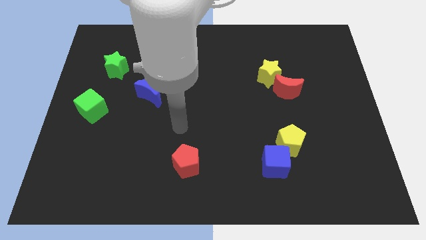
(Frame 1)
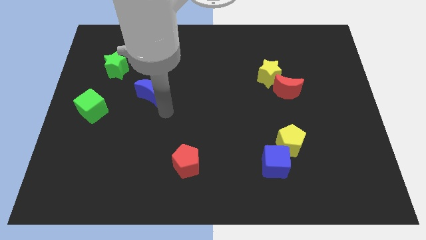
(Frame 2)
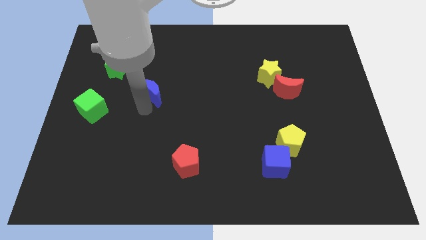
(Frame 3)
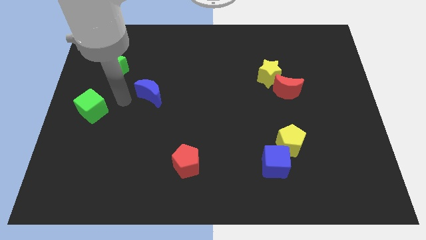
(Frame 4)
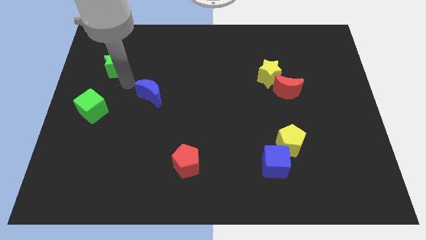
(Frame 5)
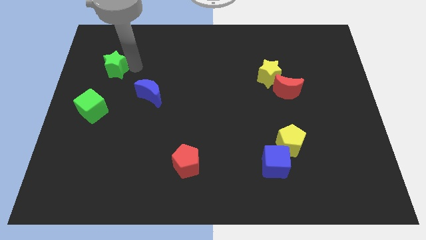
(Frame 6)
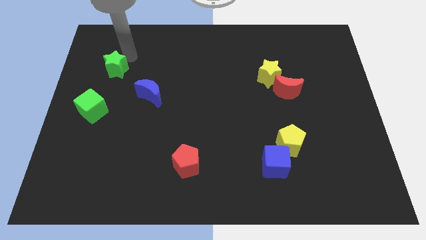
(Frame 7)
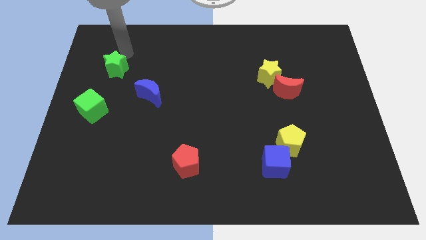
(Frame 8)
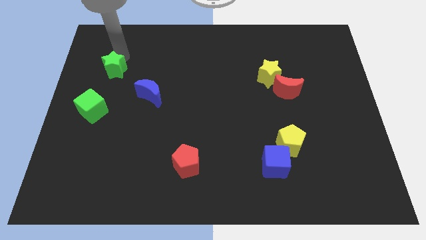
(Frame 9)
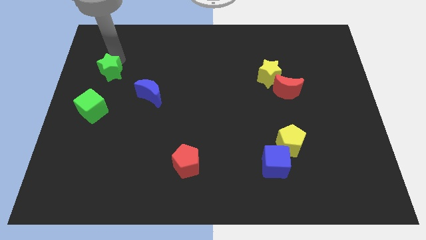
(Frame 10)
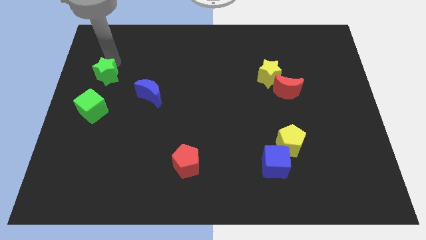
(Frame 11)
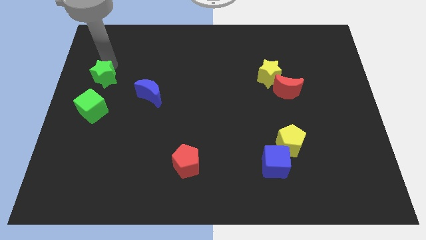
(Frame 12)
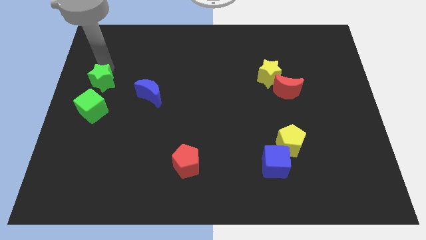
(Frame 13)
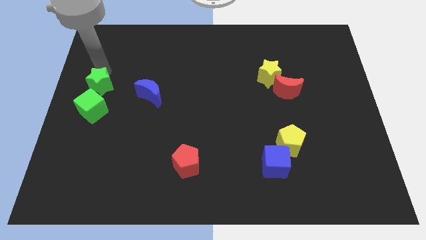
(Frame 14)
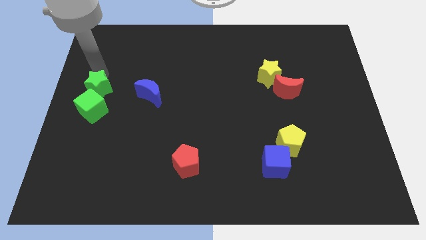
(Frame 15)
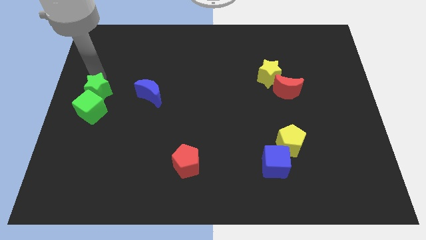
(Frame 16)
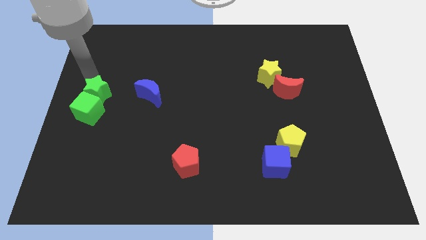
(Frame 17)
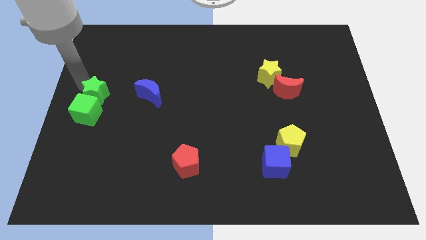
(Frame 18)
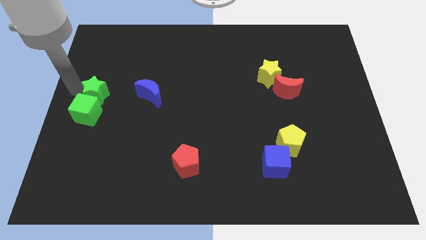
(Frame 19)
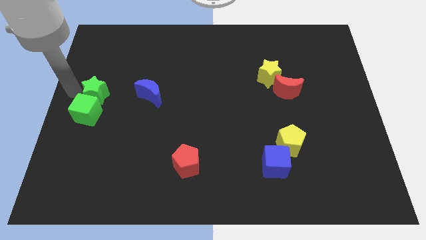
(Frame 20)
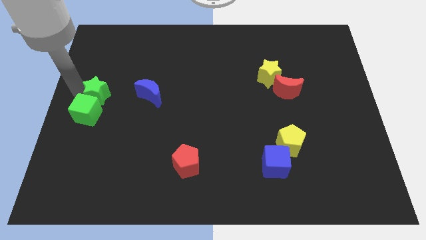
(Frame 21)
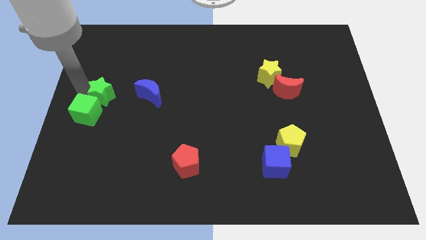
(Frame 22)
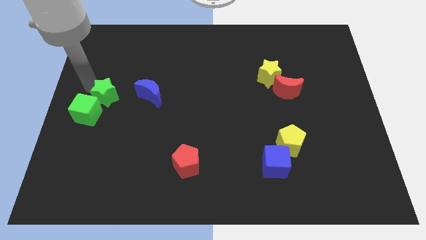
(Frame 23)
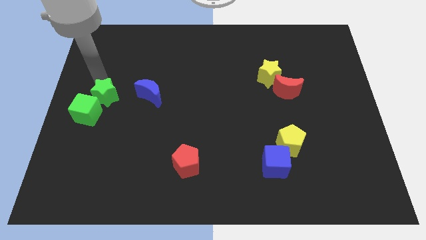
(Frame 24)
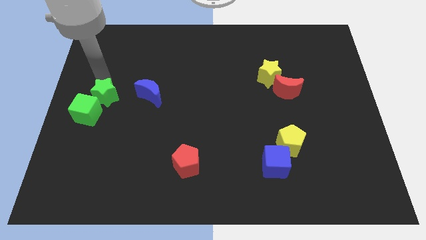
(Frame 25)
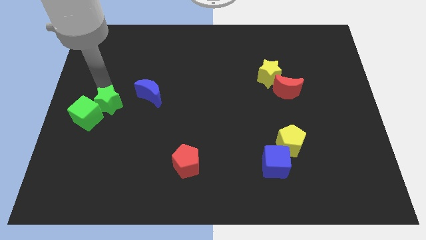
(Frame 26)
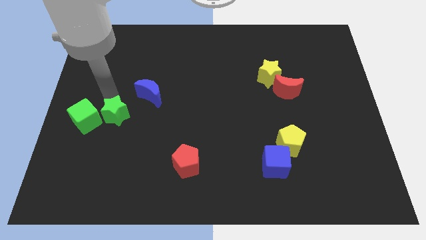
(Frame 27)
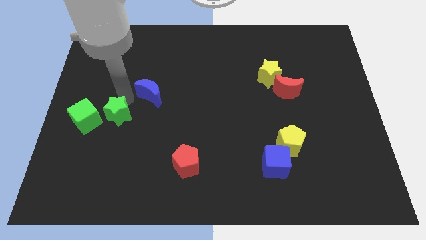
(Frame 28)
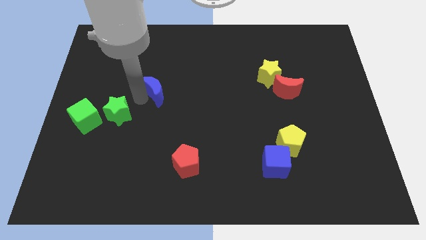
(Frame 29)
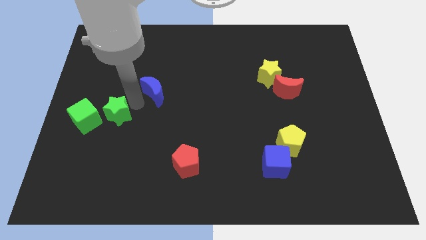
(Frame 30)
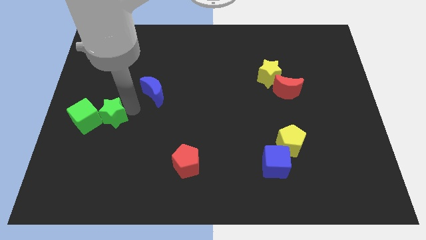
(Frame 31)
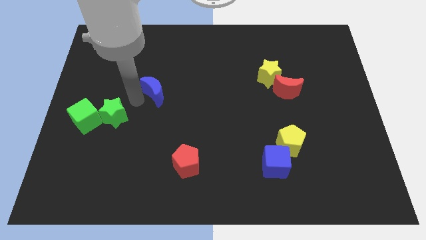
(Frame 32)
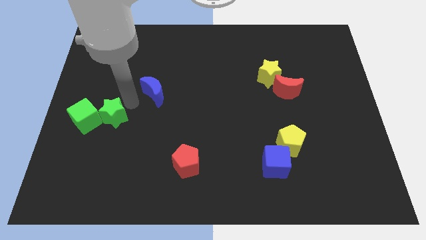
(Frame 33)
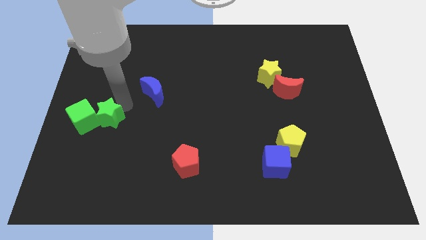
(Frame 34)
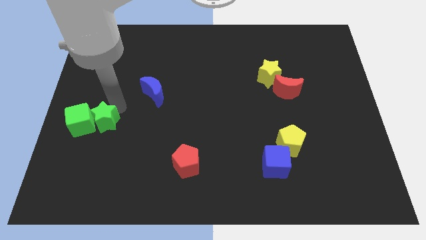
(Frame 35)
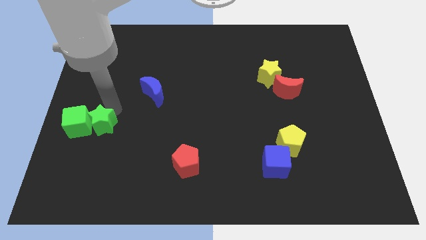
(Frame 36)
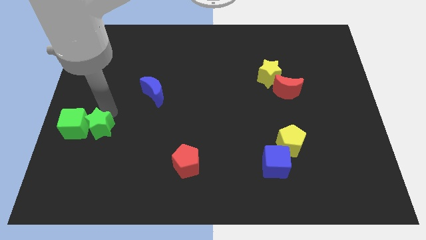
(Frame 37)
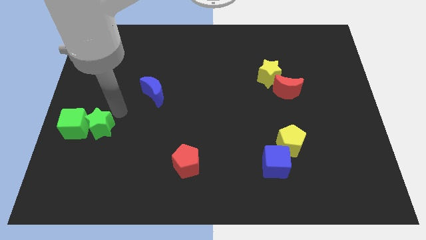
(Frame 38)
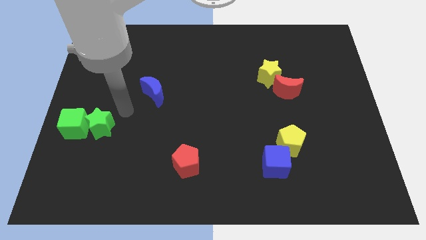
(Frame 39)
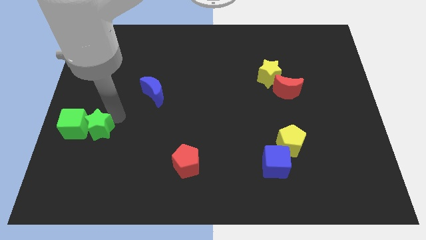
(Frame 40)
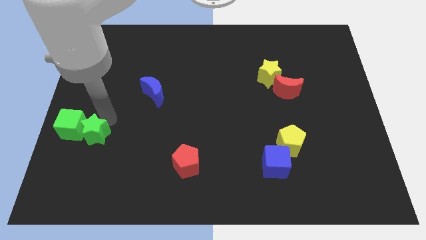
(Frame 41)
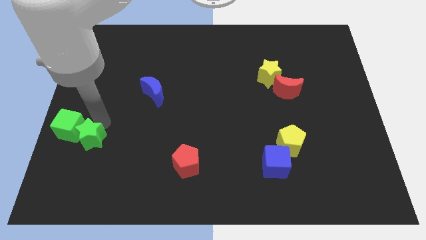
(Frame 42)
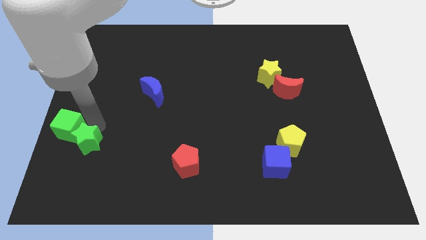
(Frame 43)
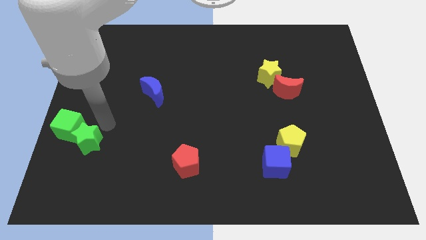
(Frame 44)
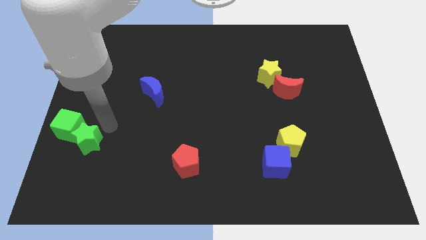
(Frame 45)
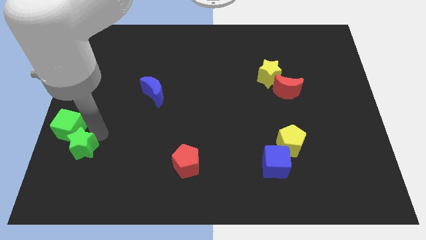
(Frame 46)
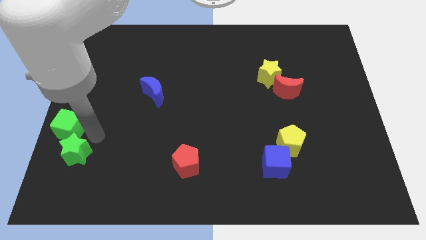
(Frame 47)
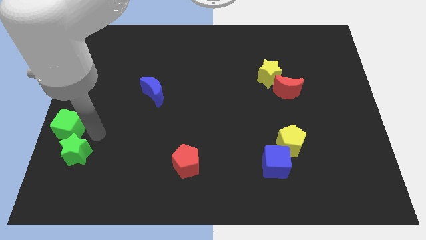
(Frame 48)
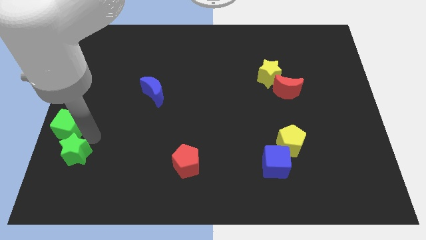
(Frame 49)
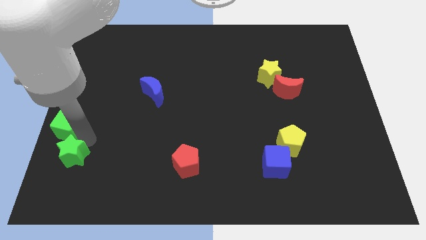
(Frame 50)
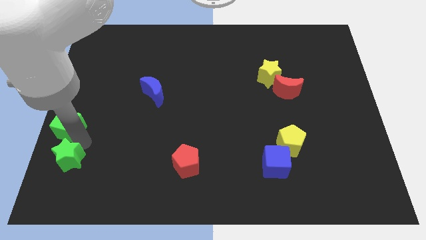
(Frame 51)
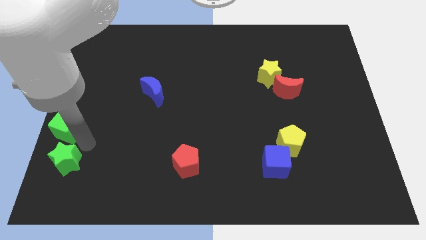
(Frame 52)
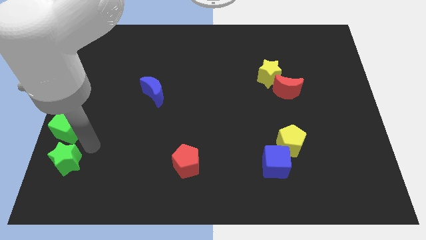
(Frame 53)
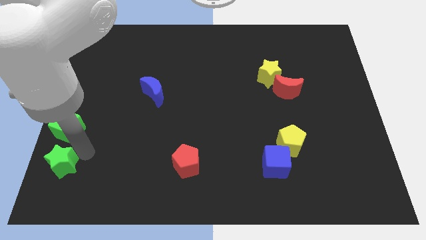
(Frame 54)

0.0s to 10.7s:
put the green star to the bottom left corner

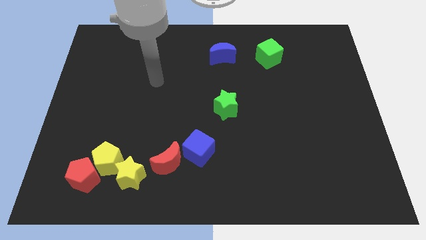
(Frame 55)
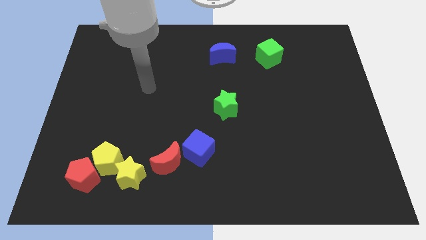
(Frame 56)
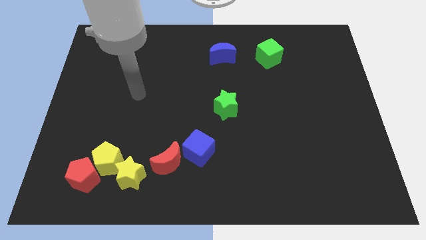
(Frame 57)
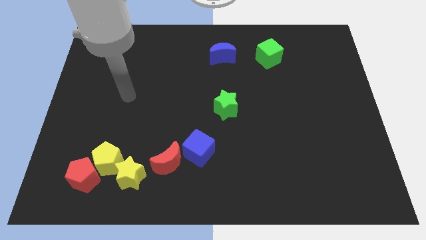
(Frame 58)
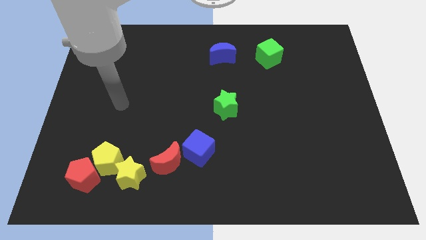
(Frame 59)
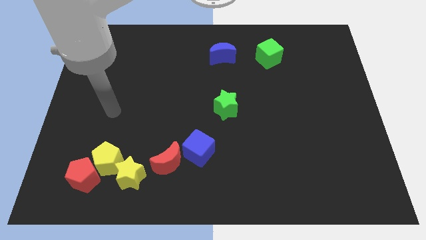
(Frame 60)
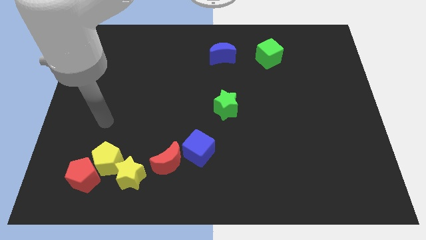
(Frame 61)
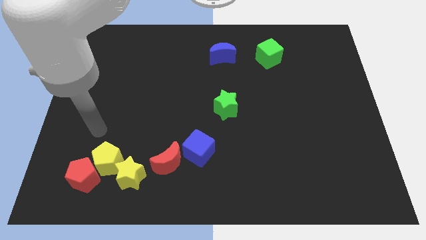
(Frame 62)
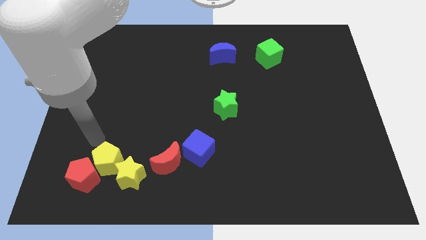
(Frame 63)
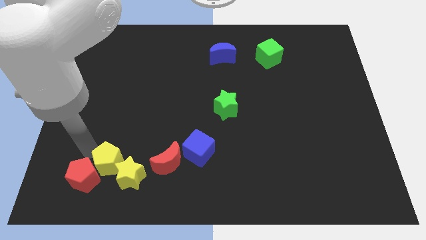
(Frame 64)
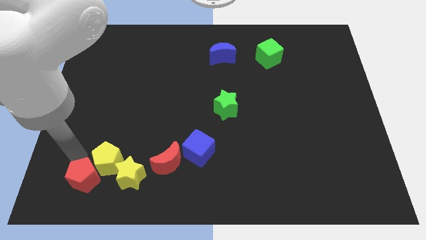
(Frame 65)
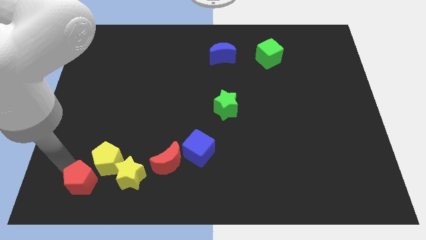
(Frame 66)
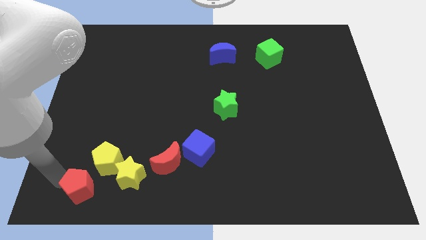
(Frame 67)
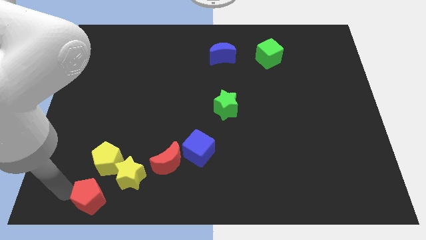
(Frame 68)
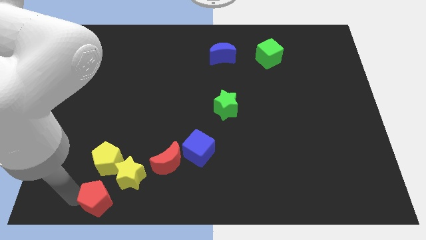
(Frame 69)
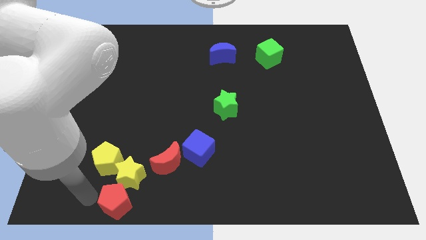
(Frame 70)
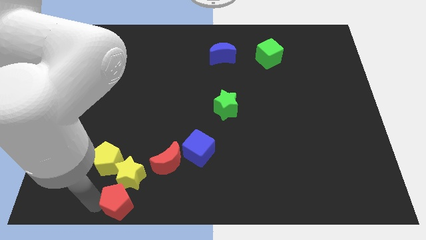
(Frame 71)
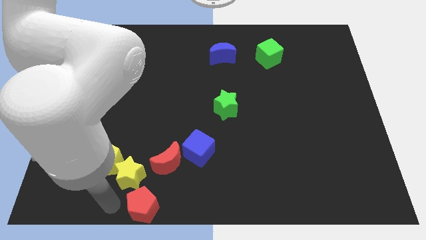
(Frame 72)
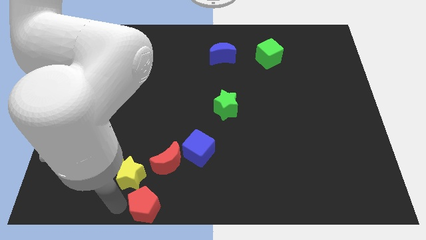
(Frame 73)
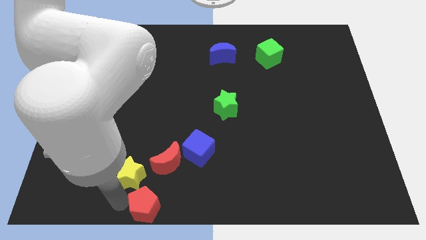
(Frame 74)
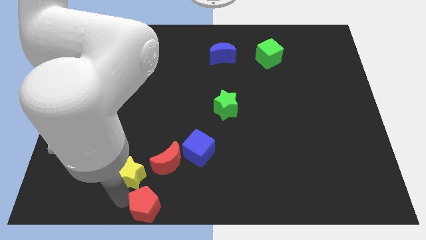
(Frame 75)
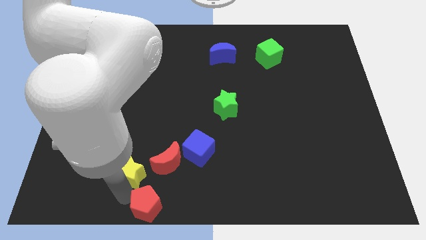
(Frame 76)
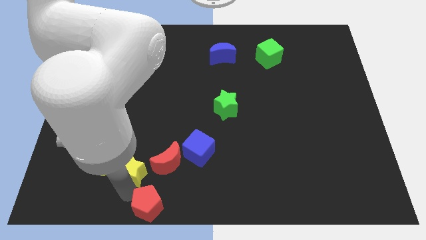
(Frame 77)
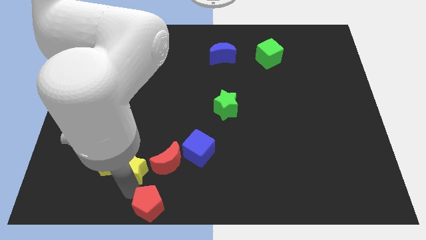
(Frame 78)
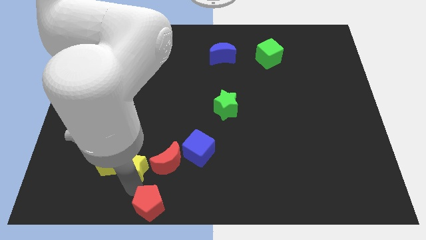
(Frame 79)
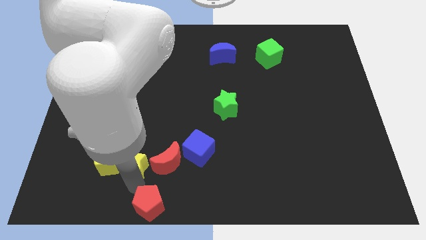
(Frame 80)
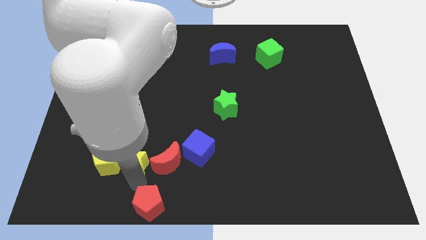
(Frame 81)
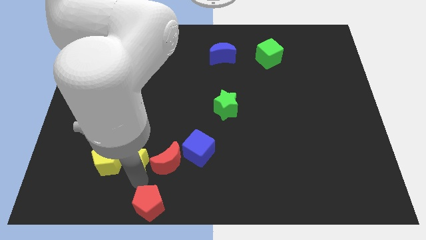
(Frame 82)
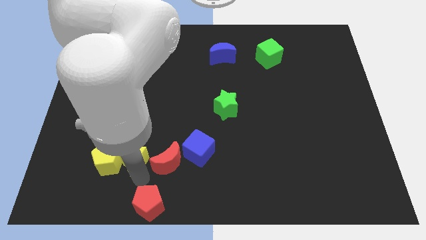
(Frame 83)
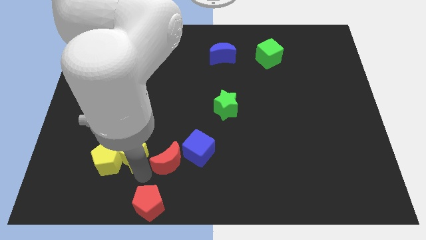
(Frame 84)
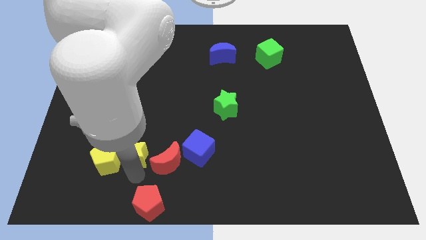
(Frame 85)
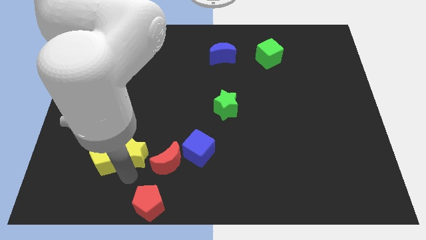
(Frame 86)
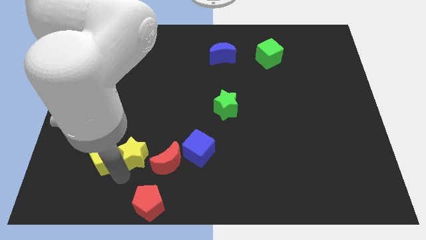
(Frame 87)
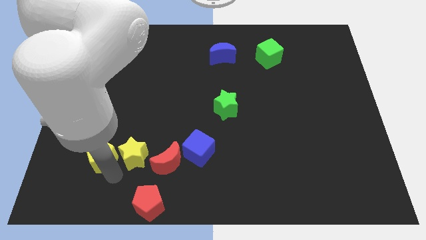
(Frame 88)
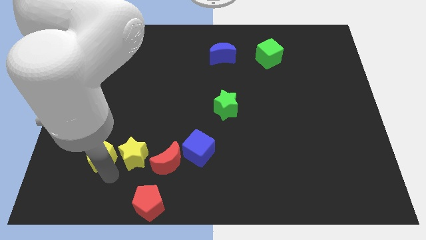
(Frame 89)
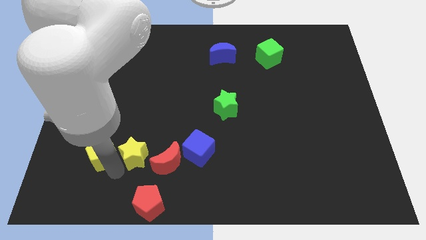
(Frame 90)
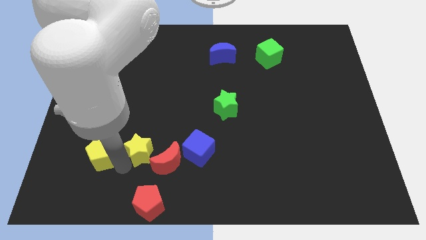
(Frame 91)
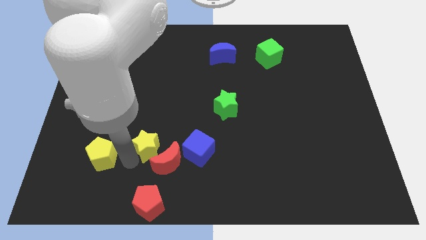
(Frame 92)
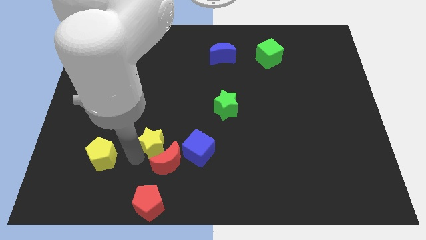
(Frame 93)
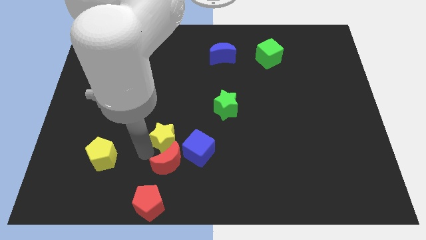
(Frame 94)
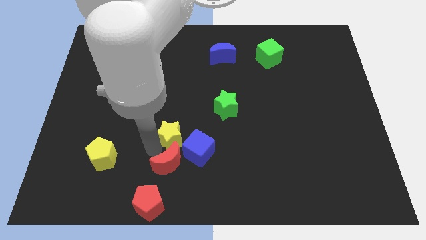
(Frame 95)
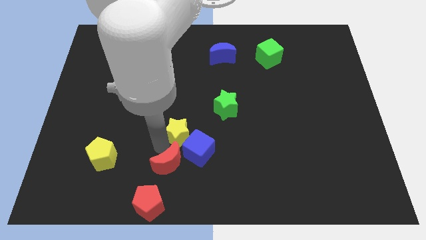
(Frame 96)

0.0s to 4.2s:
move the yellow star to the middle of the board
